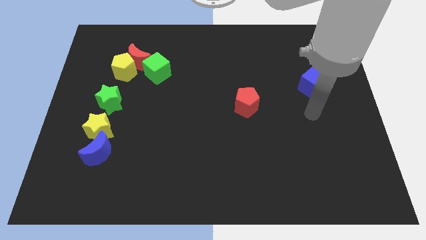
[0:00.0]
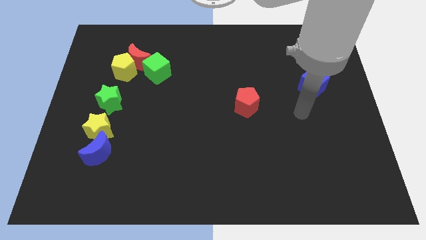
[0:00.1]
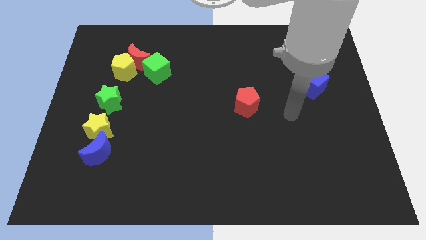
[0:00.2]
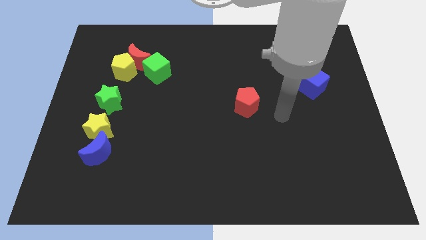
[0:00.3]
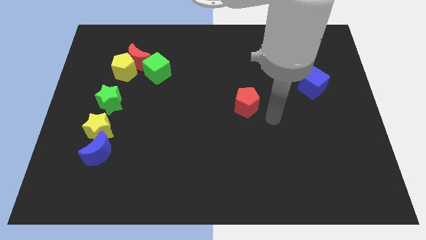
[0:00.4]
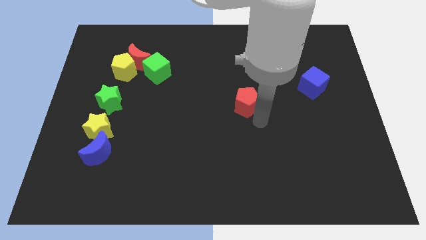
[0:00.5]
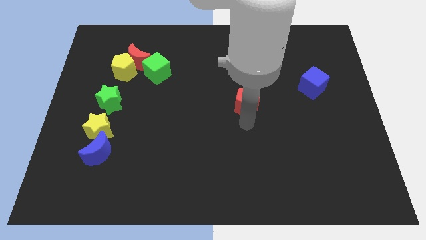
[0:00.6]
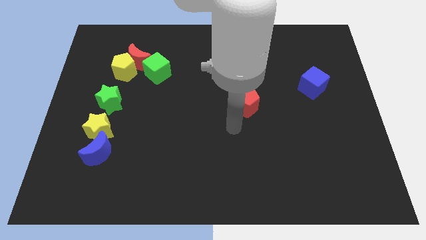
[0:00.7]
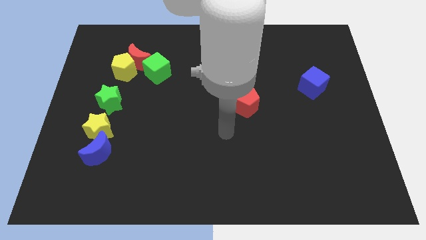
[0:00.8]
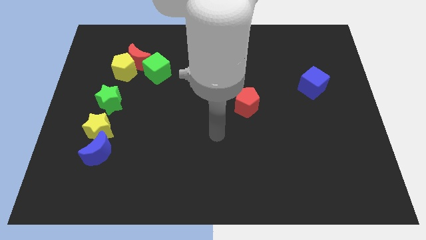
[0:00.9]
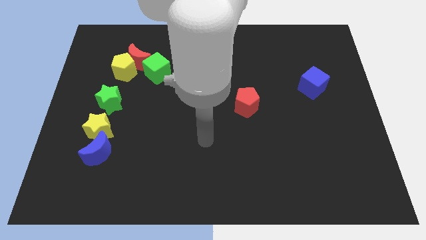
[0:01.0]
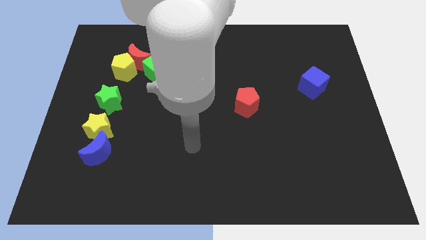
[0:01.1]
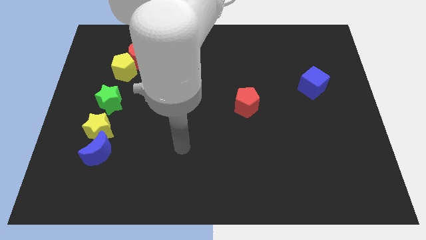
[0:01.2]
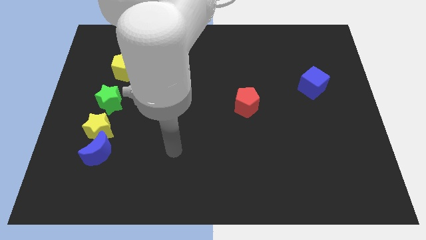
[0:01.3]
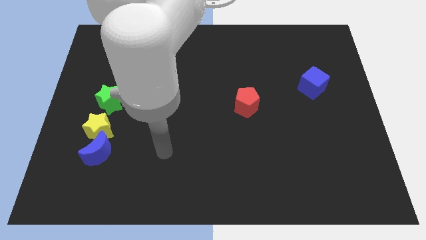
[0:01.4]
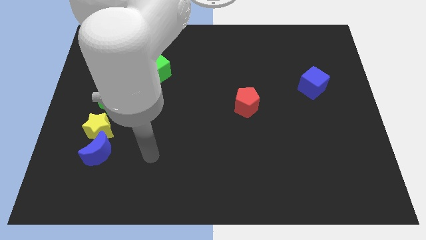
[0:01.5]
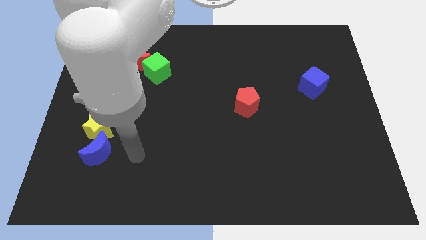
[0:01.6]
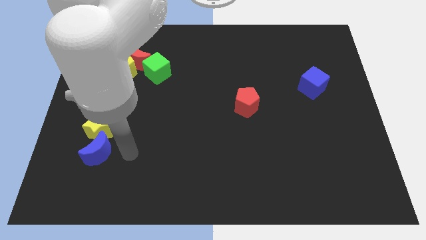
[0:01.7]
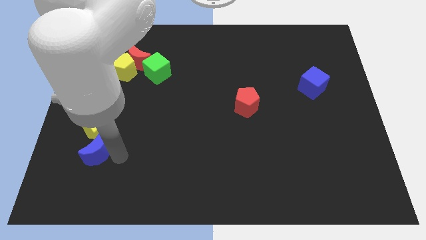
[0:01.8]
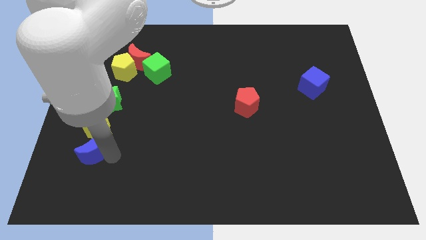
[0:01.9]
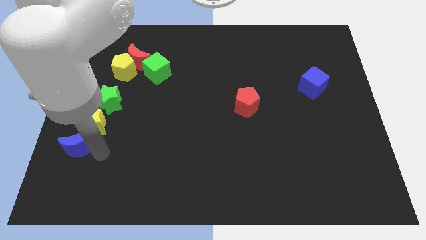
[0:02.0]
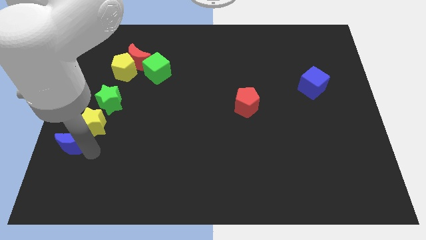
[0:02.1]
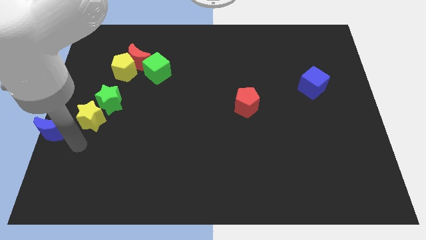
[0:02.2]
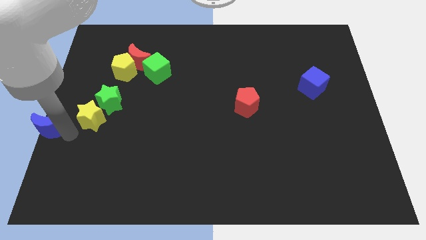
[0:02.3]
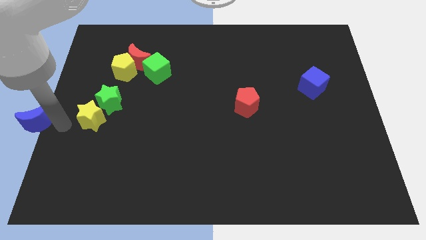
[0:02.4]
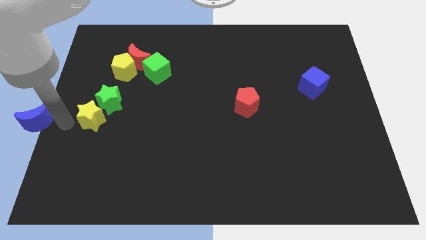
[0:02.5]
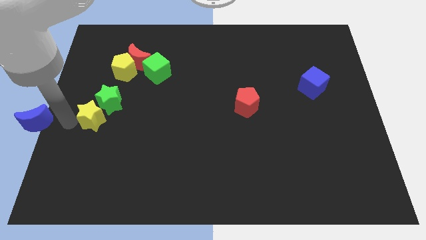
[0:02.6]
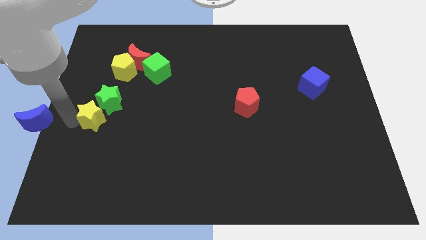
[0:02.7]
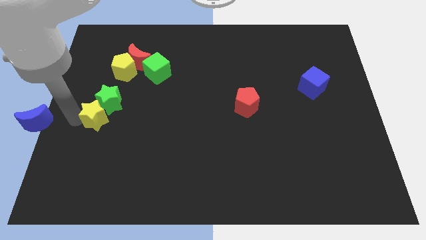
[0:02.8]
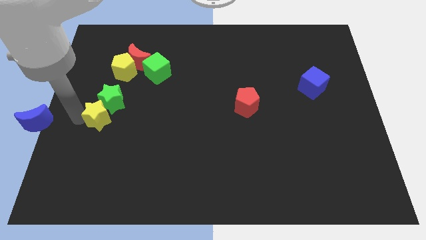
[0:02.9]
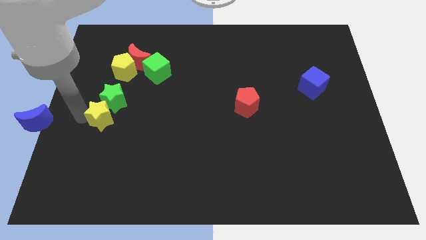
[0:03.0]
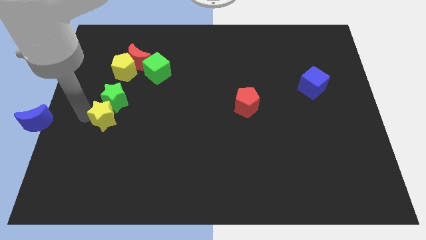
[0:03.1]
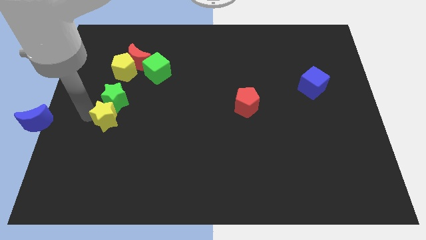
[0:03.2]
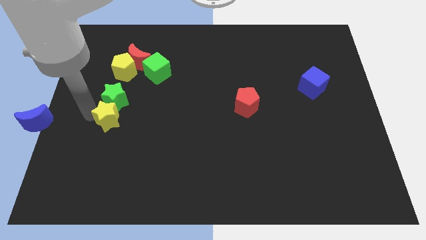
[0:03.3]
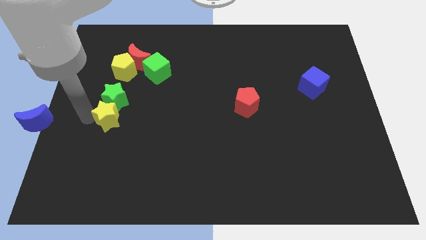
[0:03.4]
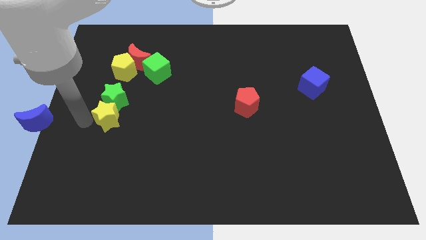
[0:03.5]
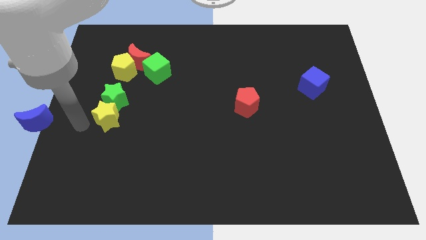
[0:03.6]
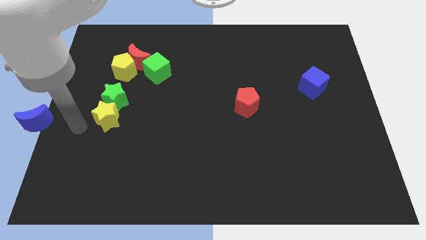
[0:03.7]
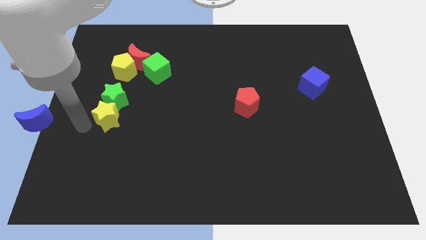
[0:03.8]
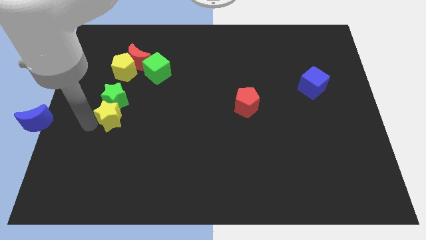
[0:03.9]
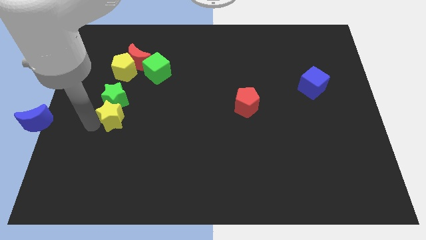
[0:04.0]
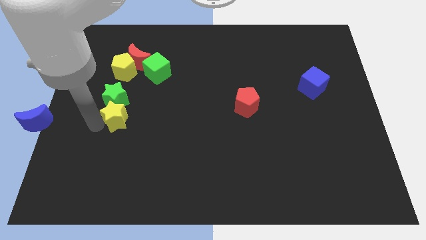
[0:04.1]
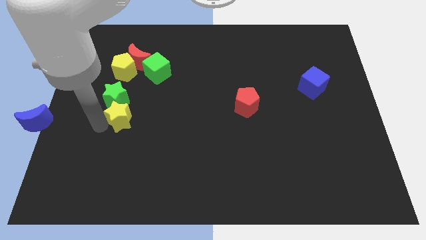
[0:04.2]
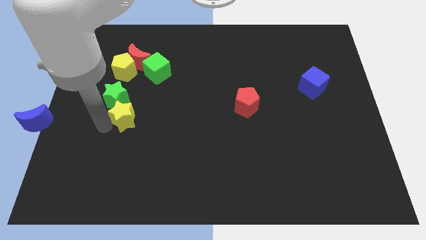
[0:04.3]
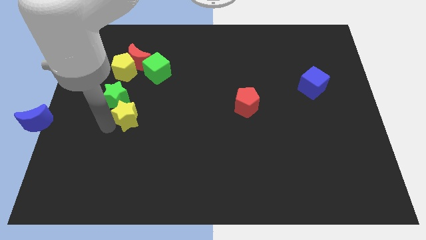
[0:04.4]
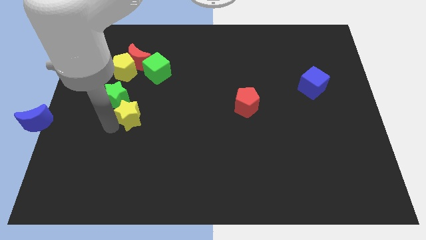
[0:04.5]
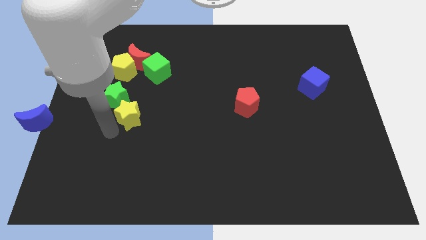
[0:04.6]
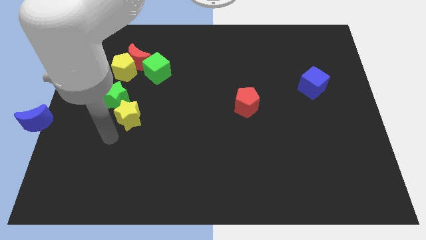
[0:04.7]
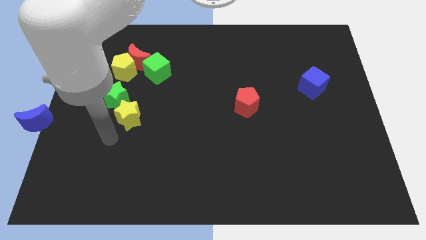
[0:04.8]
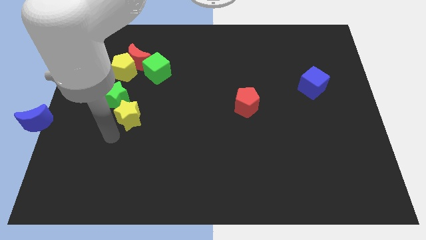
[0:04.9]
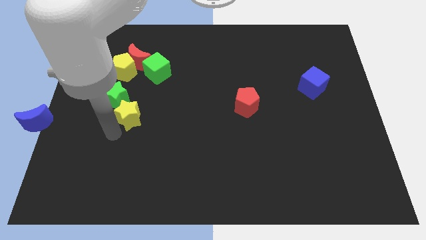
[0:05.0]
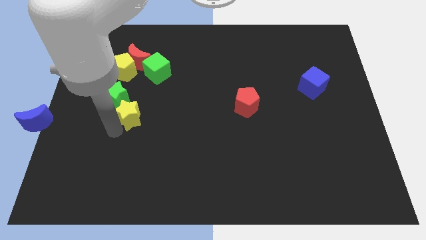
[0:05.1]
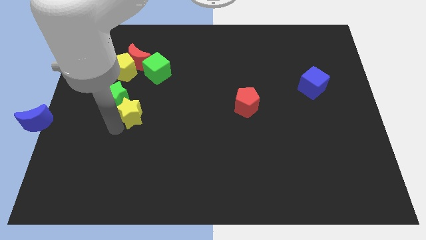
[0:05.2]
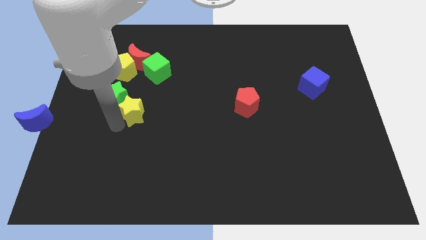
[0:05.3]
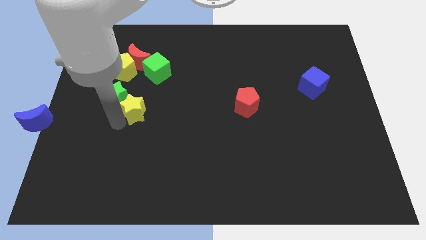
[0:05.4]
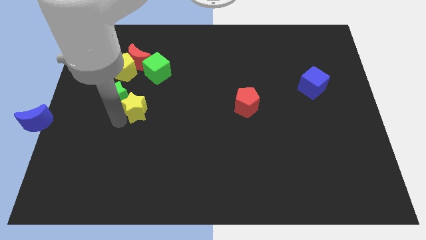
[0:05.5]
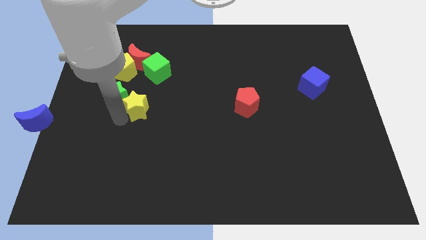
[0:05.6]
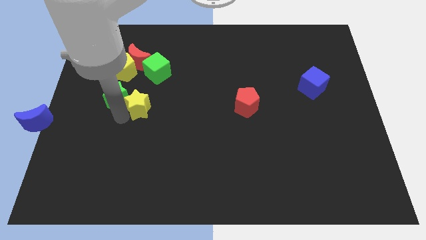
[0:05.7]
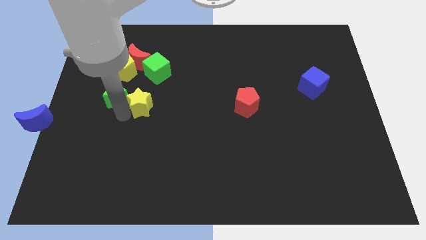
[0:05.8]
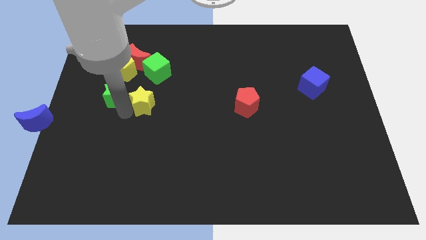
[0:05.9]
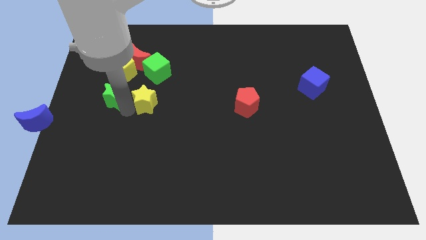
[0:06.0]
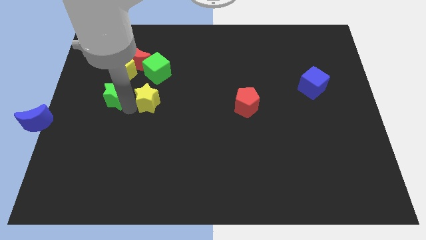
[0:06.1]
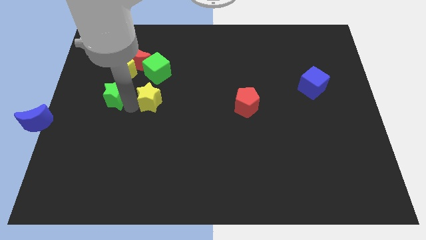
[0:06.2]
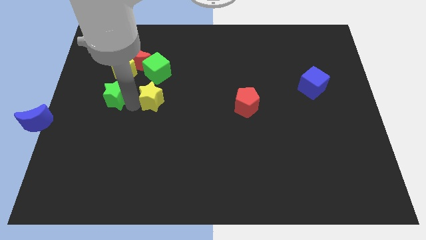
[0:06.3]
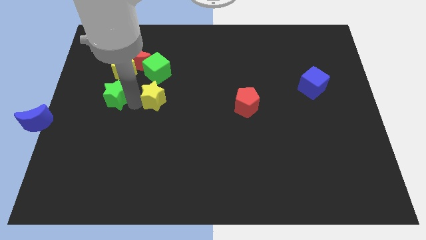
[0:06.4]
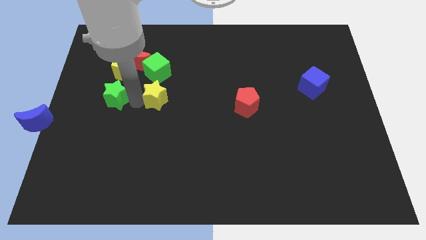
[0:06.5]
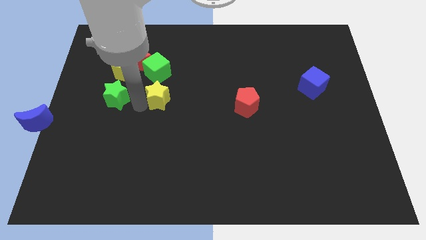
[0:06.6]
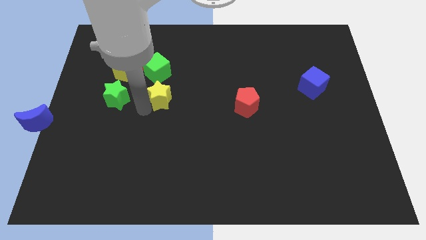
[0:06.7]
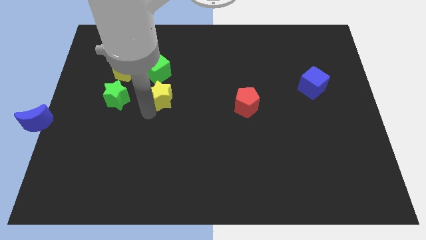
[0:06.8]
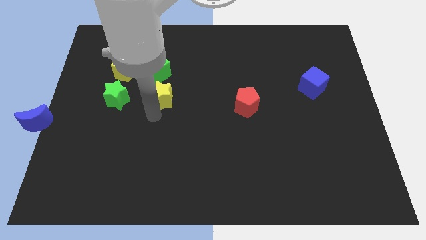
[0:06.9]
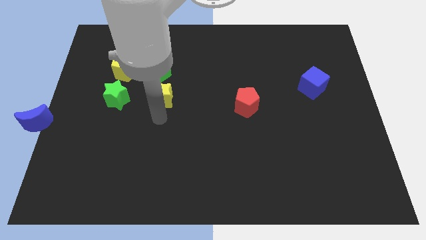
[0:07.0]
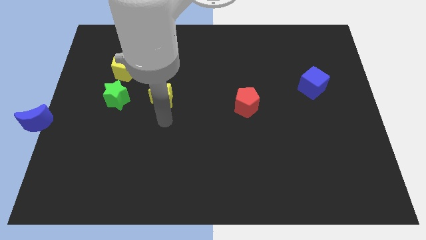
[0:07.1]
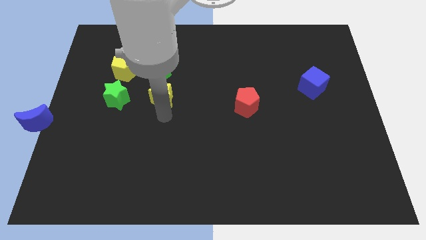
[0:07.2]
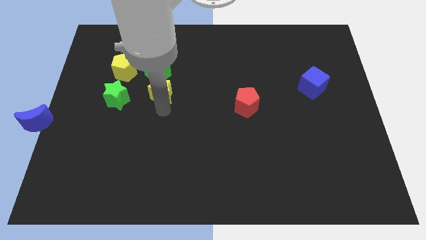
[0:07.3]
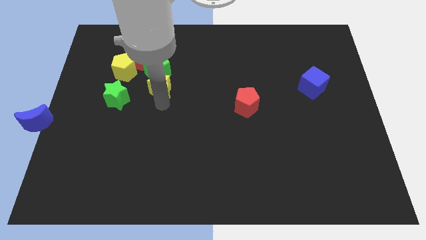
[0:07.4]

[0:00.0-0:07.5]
slide the yellow star diagonally down and to the right of the red moon
